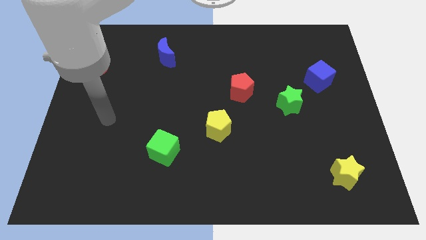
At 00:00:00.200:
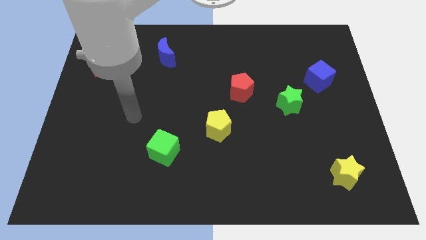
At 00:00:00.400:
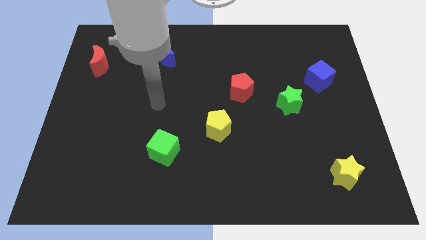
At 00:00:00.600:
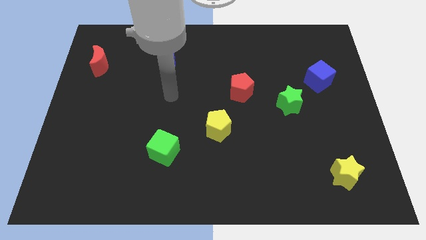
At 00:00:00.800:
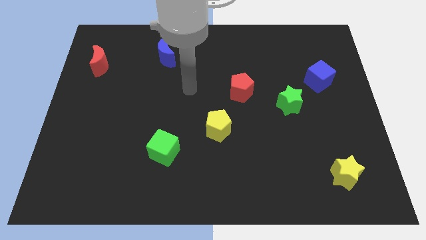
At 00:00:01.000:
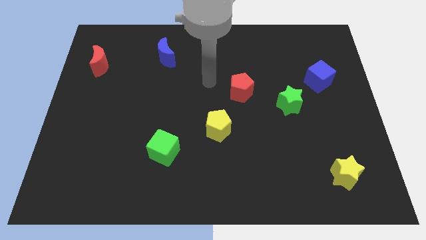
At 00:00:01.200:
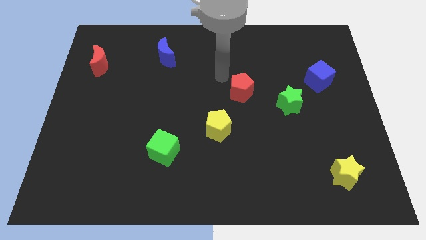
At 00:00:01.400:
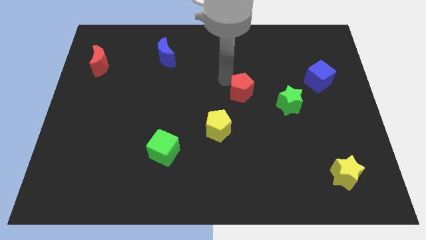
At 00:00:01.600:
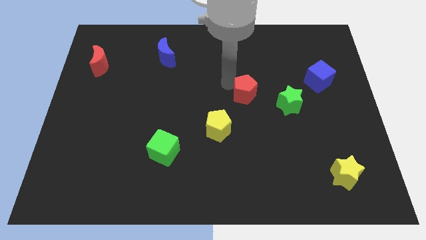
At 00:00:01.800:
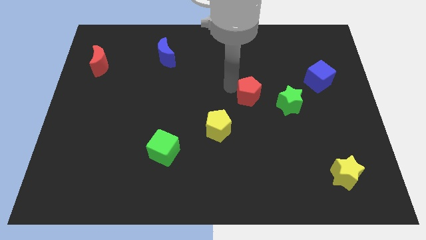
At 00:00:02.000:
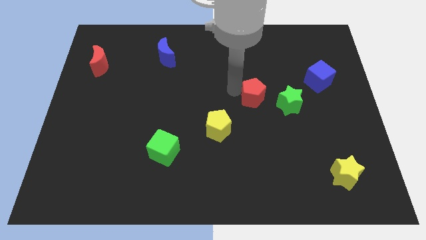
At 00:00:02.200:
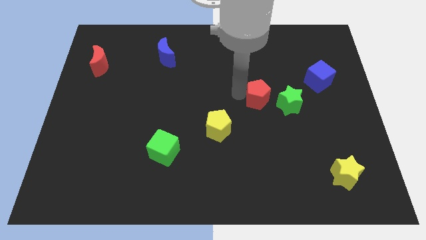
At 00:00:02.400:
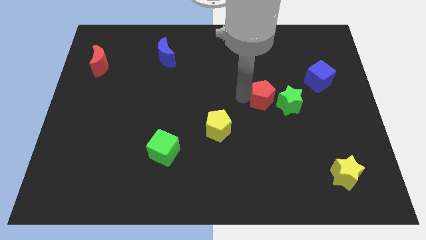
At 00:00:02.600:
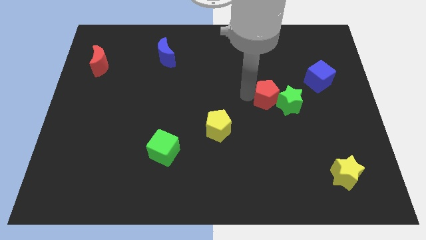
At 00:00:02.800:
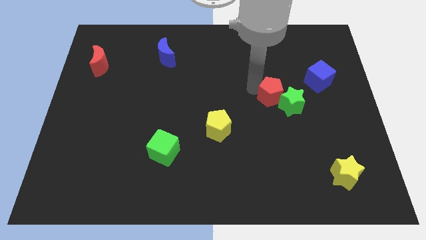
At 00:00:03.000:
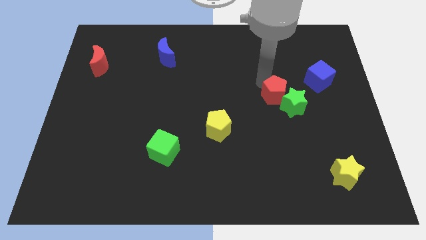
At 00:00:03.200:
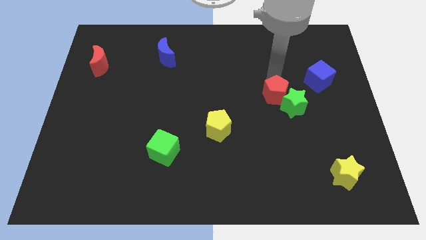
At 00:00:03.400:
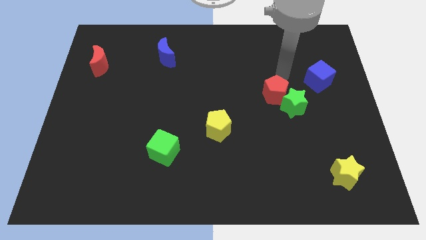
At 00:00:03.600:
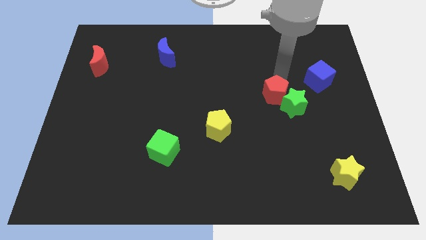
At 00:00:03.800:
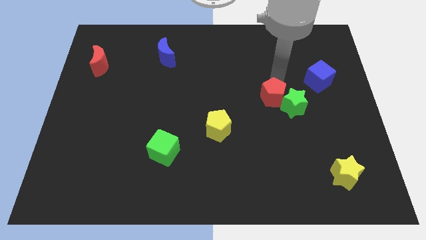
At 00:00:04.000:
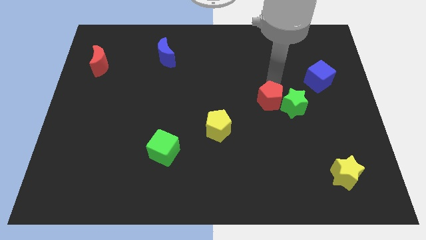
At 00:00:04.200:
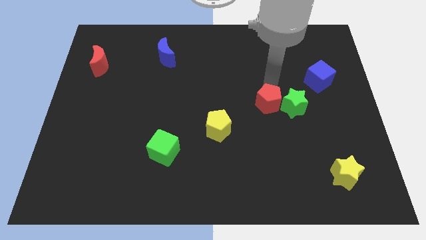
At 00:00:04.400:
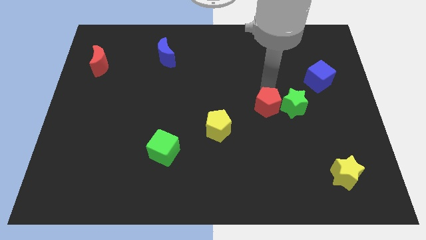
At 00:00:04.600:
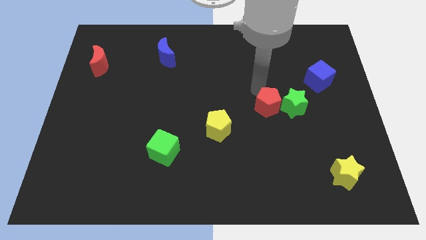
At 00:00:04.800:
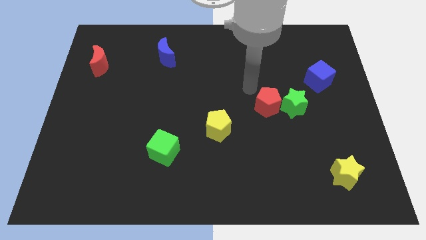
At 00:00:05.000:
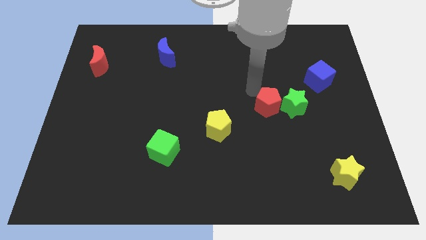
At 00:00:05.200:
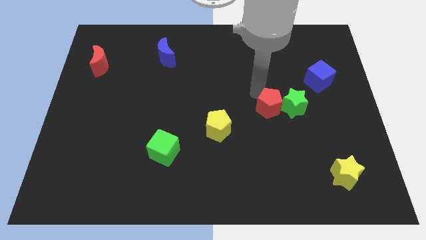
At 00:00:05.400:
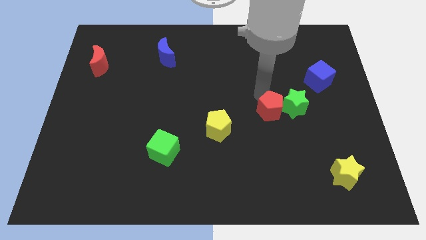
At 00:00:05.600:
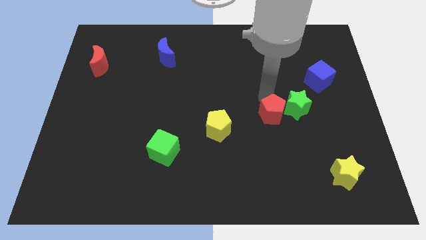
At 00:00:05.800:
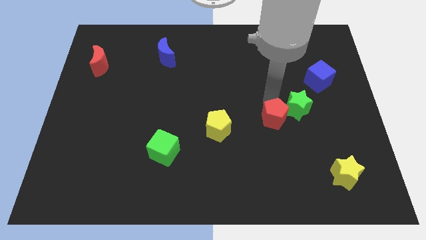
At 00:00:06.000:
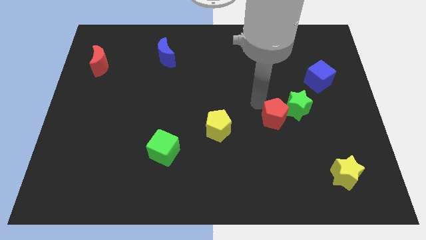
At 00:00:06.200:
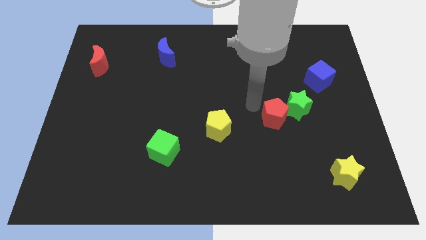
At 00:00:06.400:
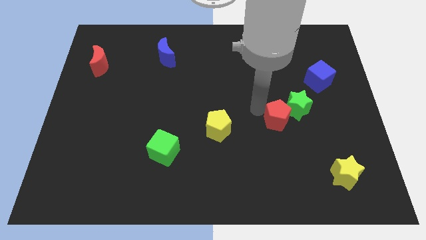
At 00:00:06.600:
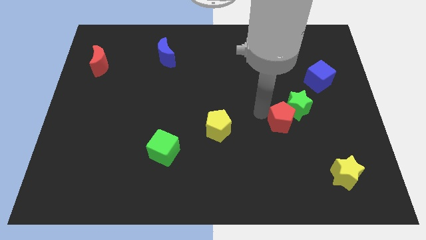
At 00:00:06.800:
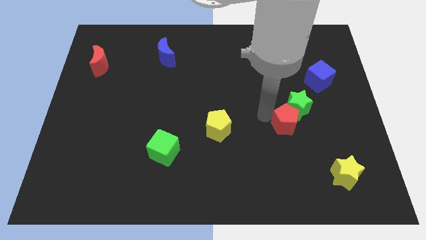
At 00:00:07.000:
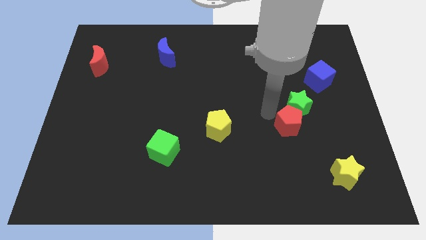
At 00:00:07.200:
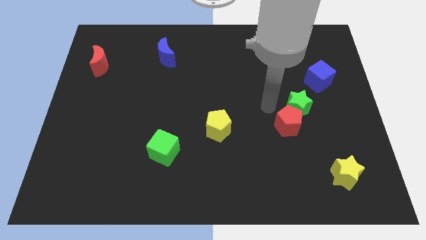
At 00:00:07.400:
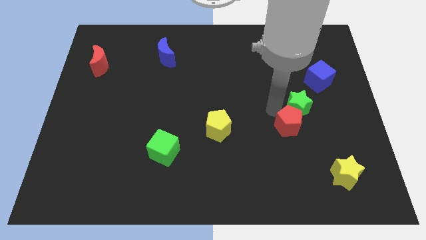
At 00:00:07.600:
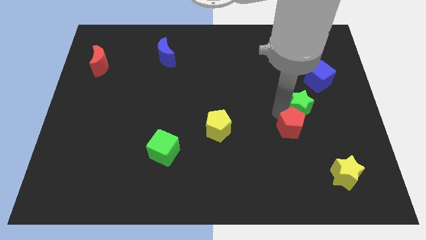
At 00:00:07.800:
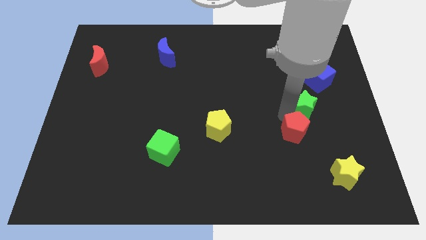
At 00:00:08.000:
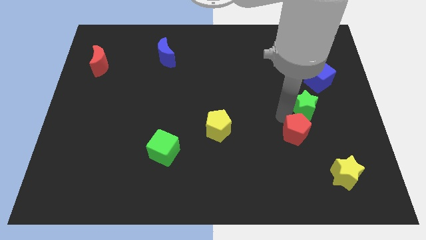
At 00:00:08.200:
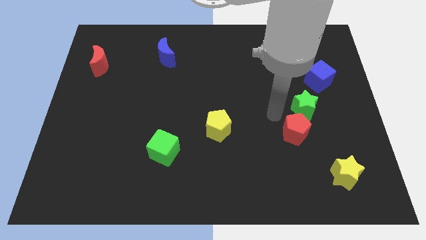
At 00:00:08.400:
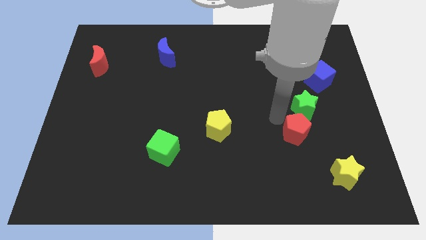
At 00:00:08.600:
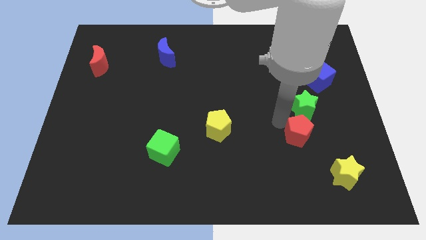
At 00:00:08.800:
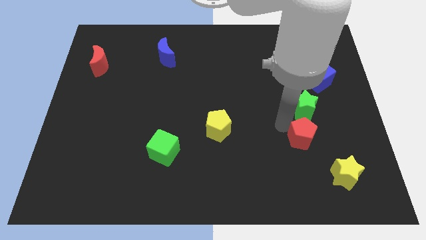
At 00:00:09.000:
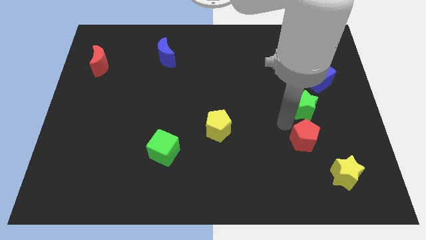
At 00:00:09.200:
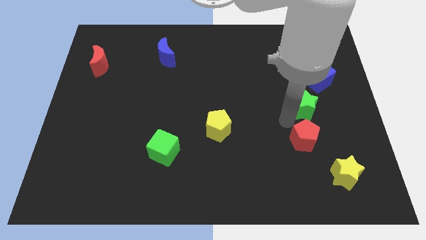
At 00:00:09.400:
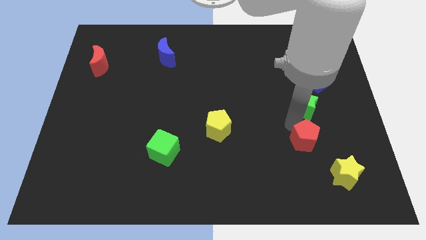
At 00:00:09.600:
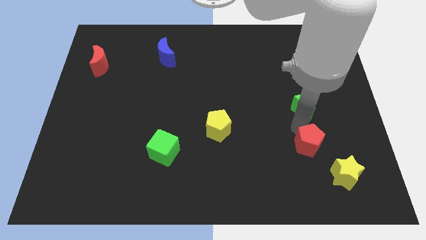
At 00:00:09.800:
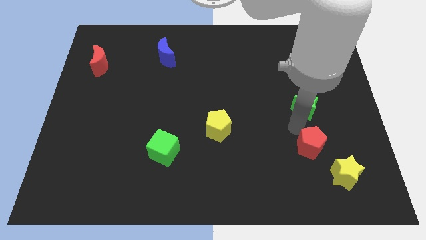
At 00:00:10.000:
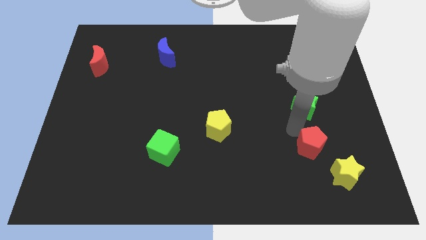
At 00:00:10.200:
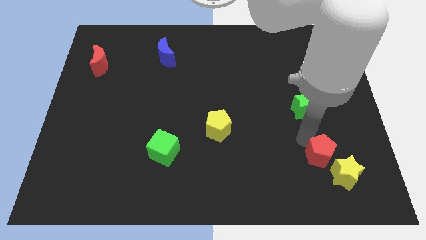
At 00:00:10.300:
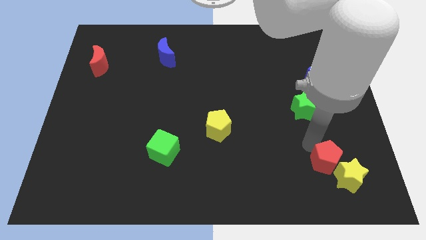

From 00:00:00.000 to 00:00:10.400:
push the red pentagon to the yellow star

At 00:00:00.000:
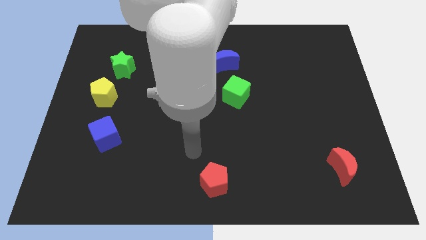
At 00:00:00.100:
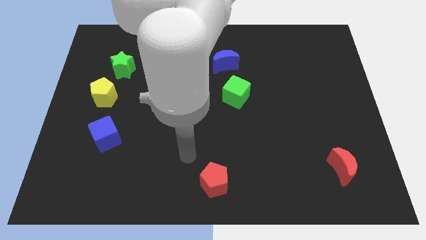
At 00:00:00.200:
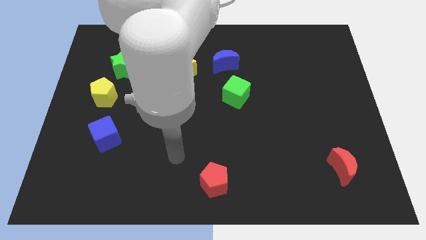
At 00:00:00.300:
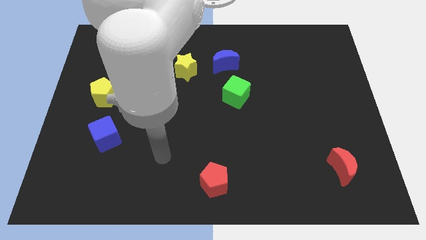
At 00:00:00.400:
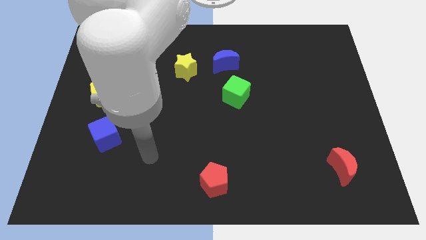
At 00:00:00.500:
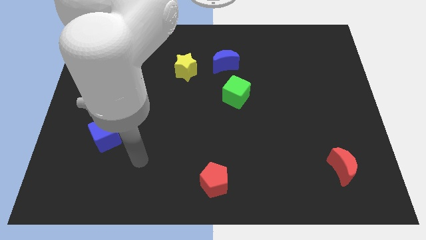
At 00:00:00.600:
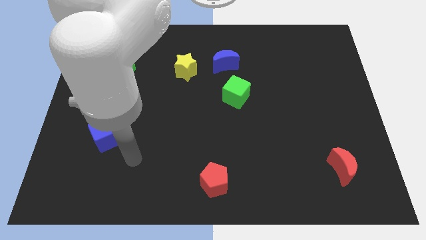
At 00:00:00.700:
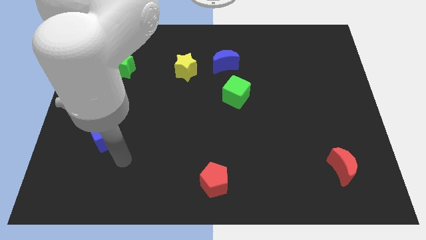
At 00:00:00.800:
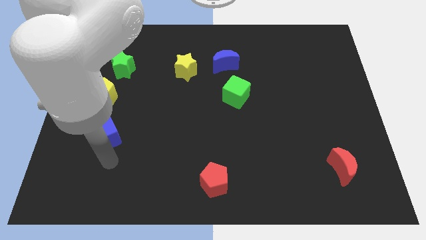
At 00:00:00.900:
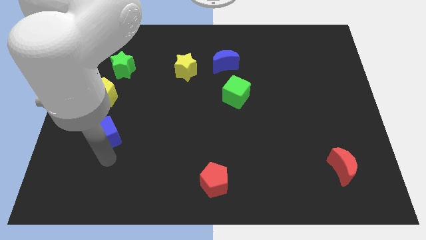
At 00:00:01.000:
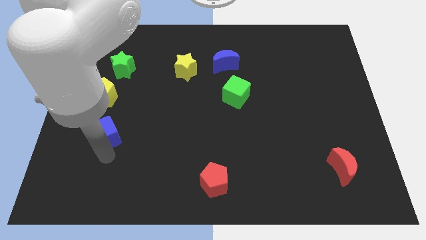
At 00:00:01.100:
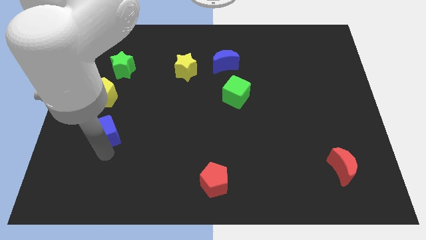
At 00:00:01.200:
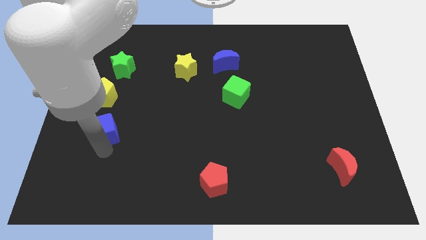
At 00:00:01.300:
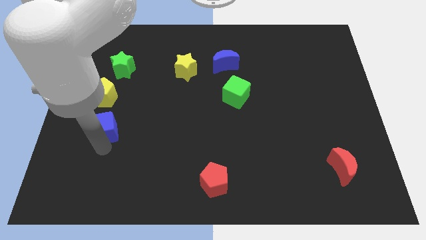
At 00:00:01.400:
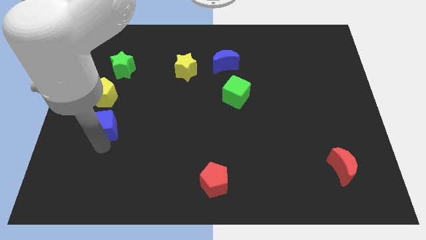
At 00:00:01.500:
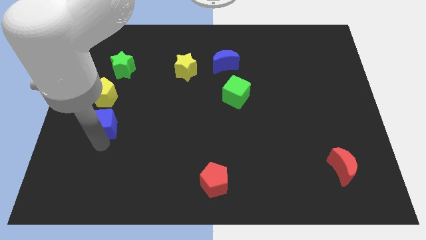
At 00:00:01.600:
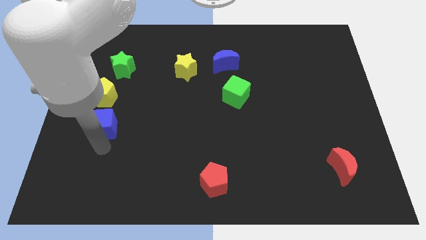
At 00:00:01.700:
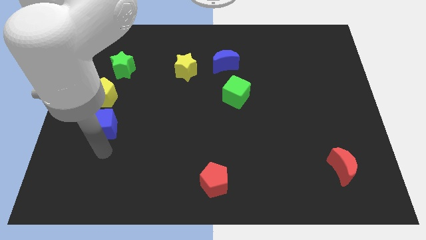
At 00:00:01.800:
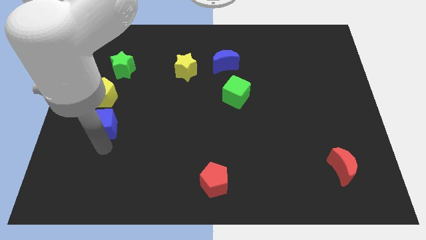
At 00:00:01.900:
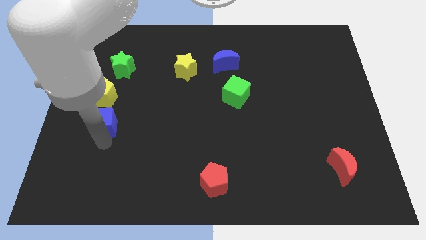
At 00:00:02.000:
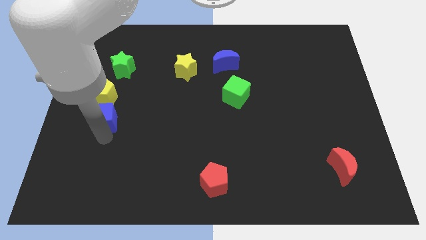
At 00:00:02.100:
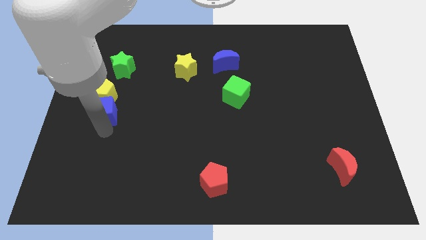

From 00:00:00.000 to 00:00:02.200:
put the blue cube close to the yellow pentagon
